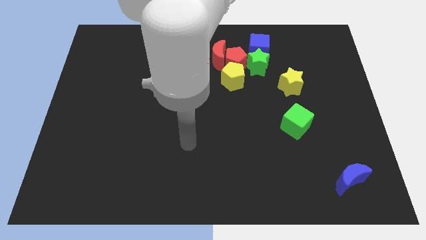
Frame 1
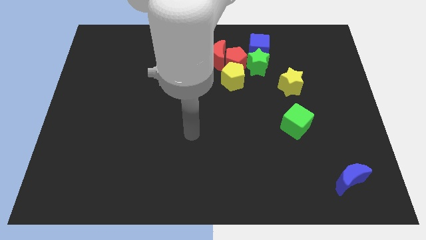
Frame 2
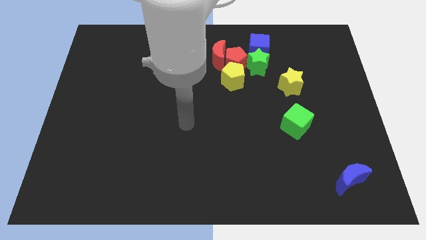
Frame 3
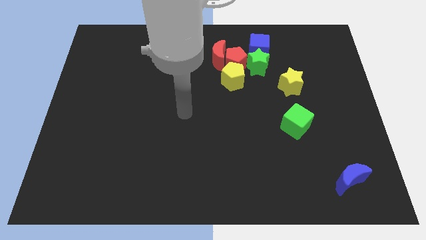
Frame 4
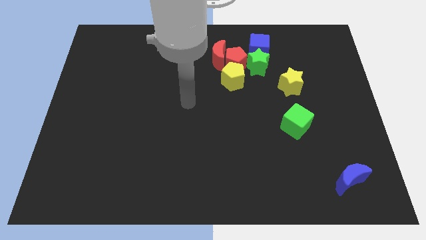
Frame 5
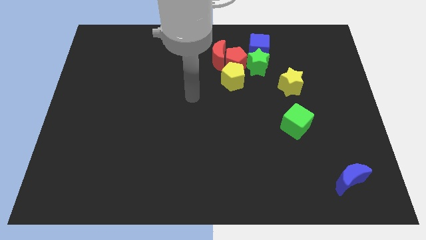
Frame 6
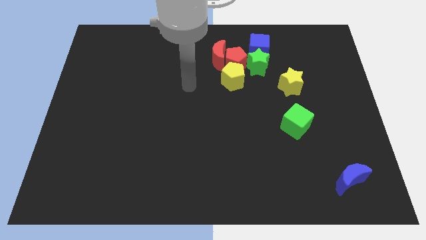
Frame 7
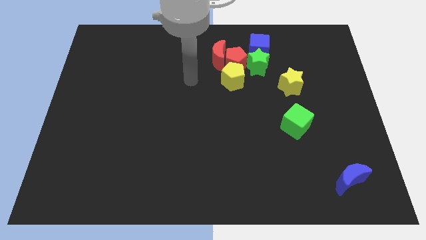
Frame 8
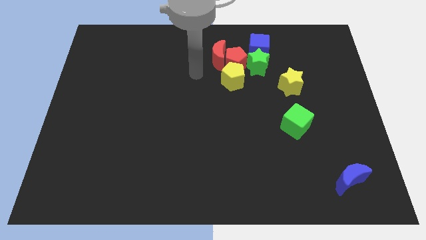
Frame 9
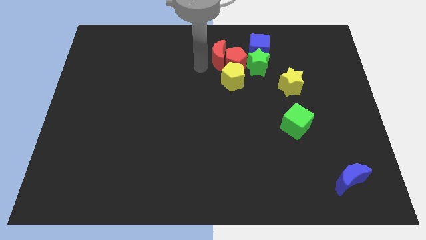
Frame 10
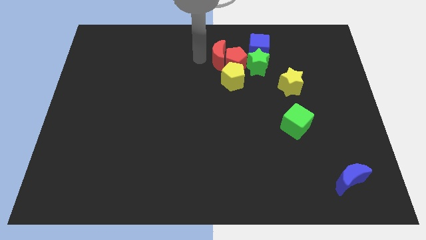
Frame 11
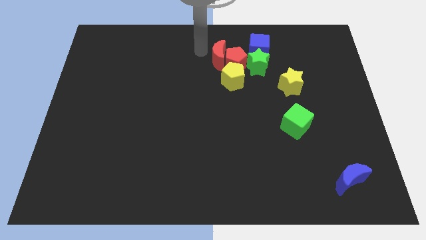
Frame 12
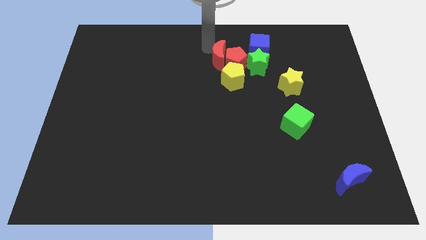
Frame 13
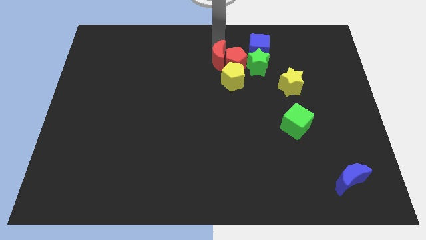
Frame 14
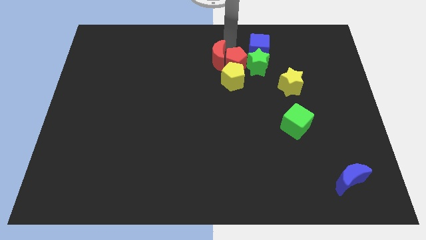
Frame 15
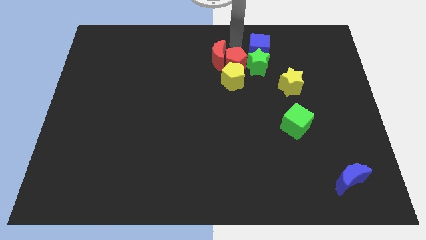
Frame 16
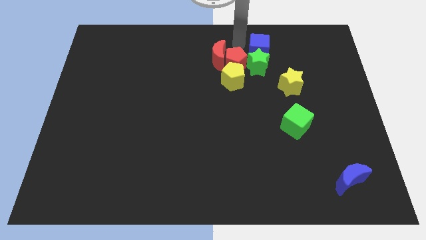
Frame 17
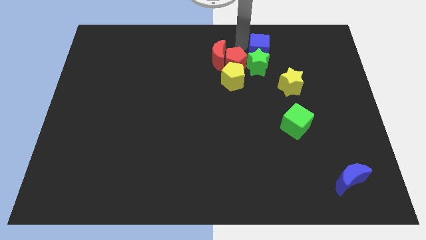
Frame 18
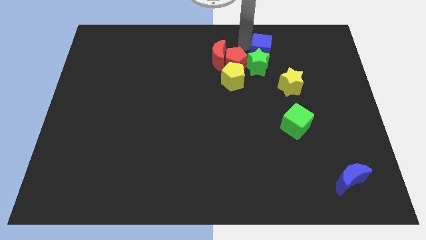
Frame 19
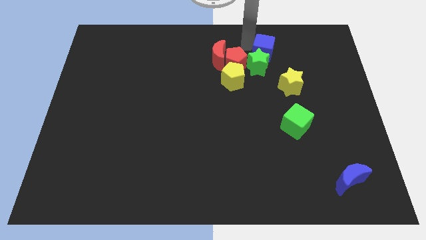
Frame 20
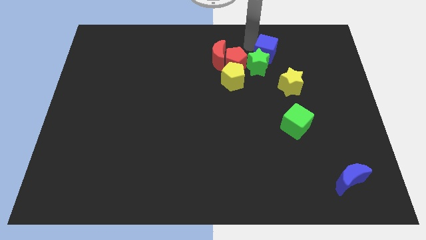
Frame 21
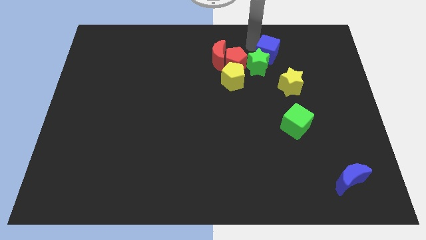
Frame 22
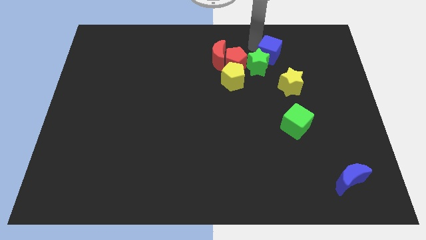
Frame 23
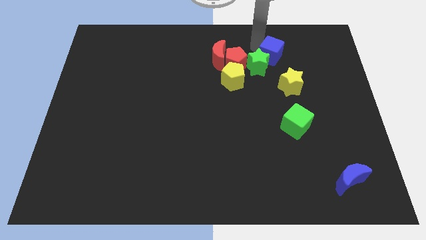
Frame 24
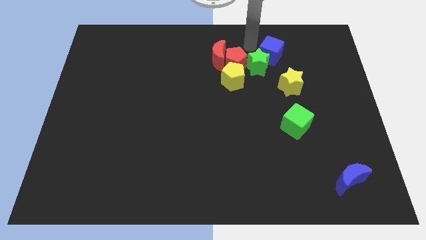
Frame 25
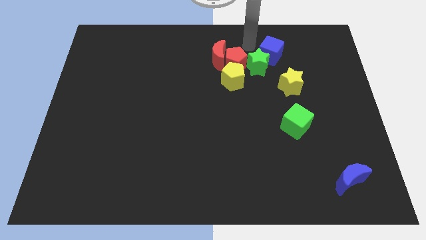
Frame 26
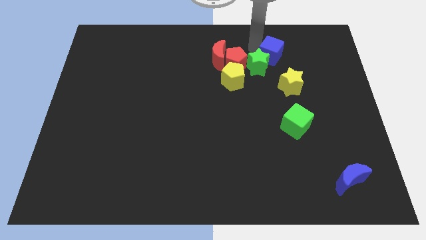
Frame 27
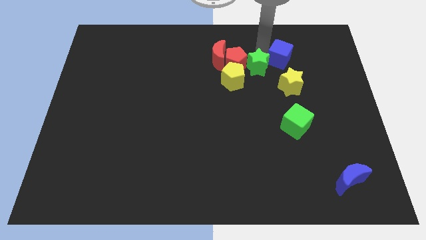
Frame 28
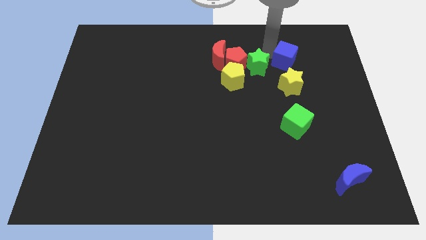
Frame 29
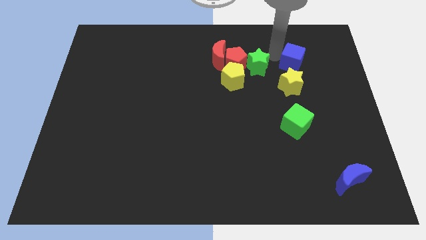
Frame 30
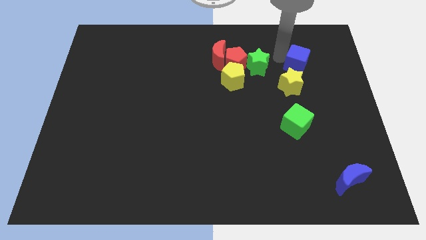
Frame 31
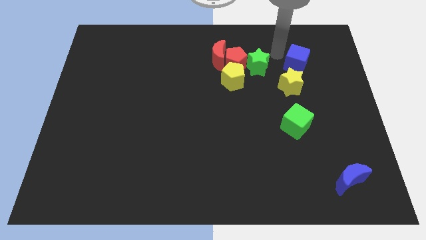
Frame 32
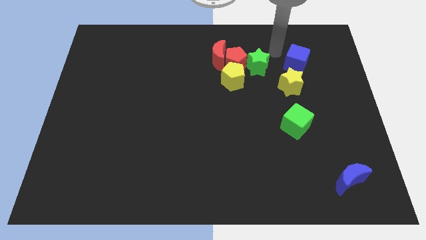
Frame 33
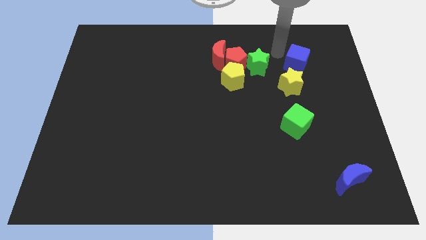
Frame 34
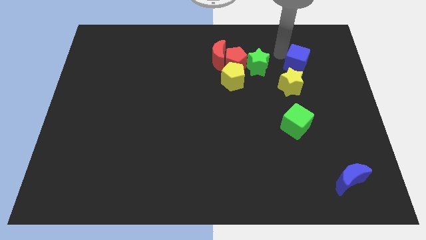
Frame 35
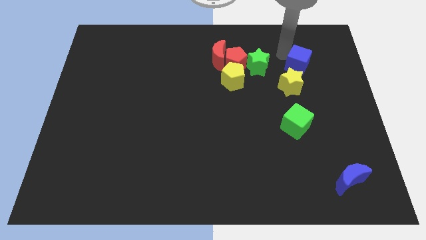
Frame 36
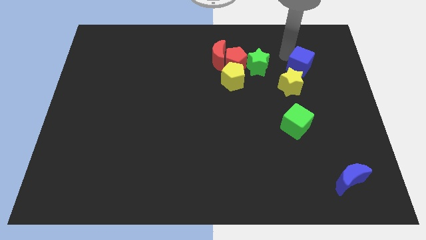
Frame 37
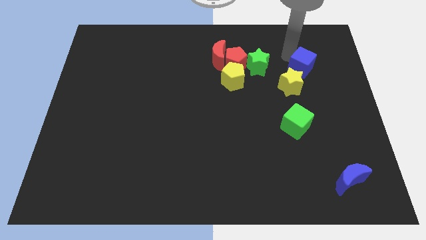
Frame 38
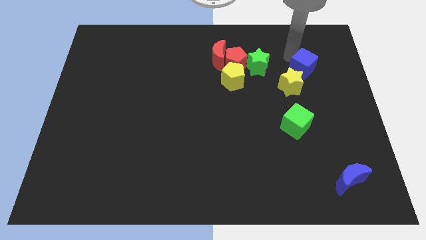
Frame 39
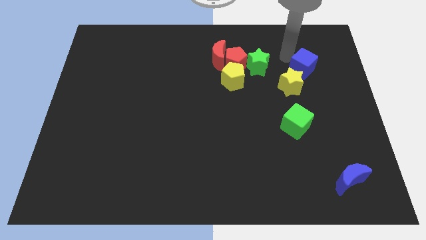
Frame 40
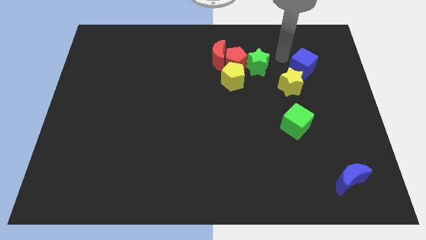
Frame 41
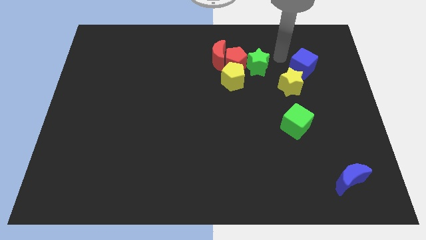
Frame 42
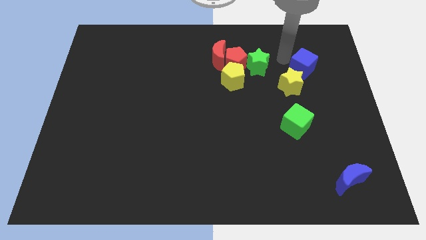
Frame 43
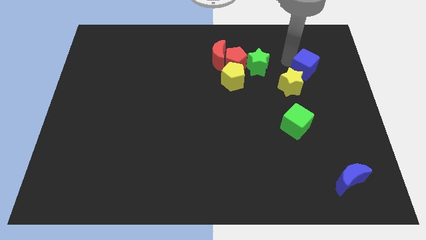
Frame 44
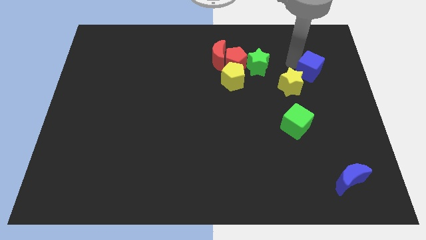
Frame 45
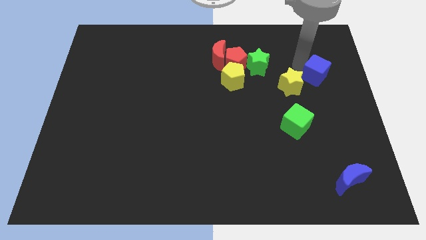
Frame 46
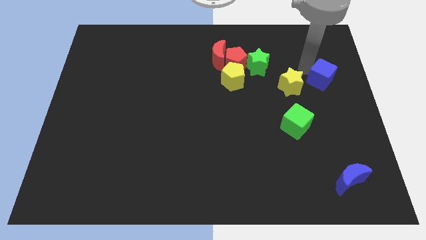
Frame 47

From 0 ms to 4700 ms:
push the blue cube to the right side

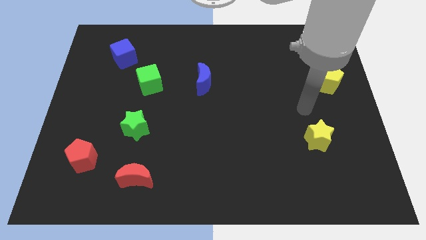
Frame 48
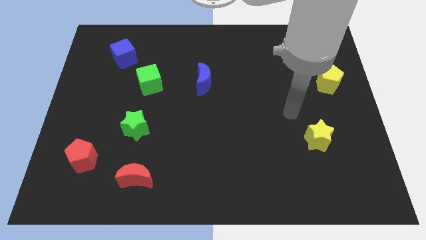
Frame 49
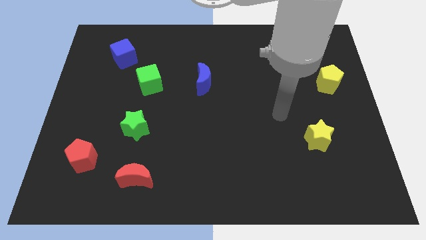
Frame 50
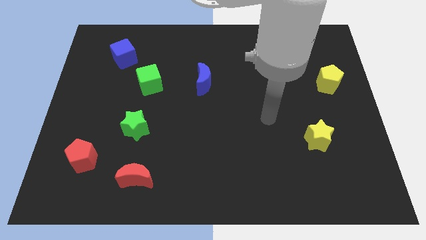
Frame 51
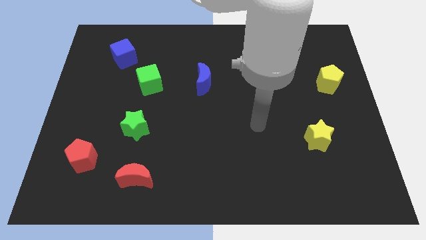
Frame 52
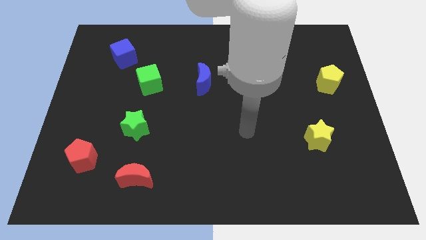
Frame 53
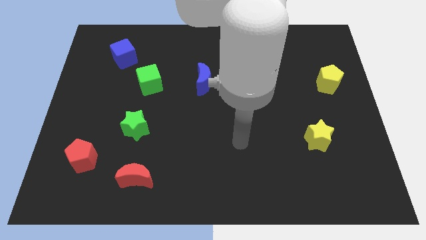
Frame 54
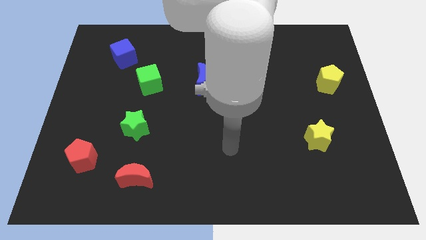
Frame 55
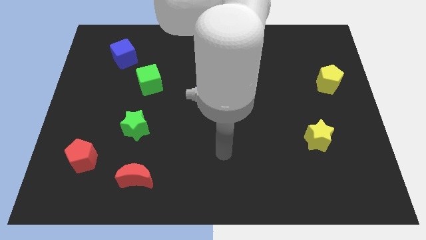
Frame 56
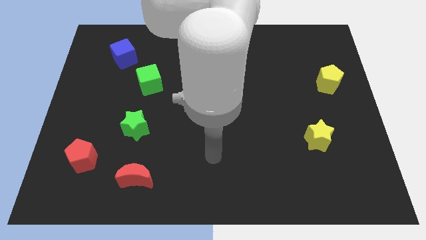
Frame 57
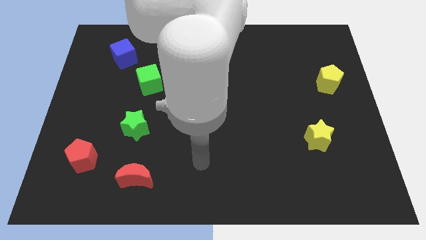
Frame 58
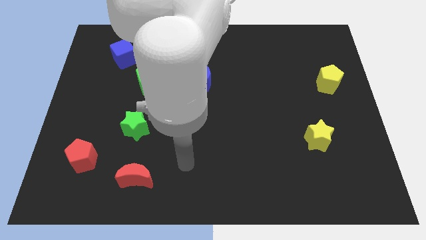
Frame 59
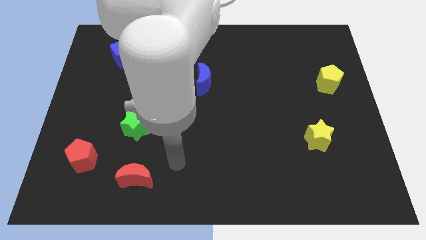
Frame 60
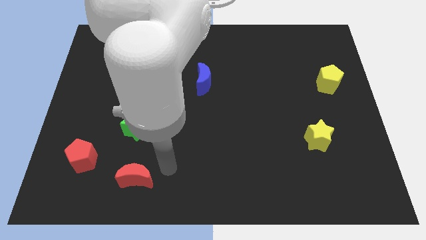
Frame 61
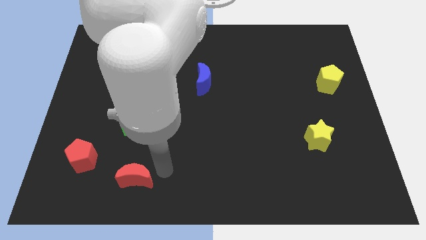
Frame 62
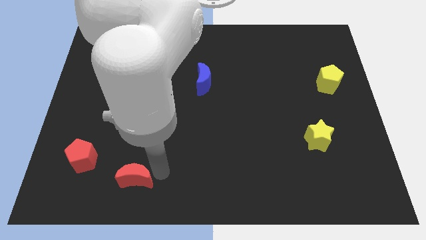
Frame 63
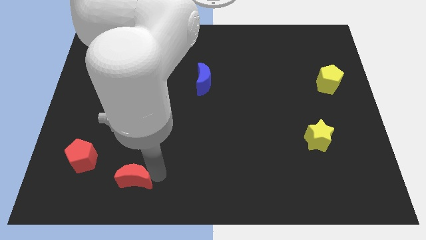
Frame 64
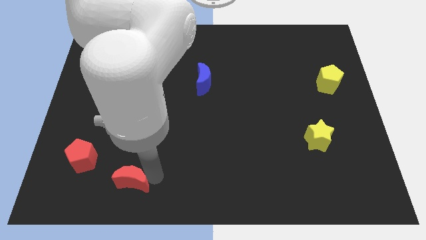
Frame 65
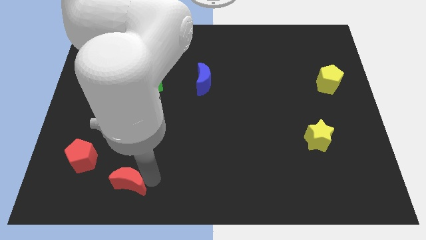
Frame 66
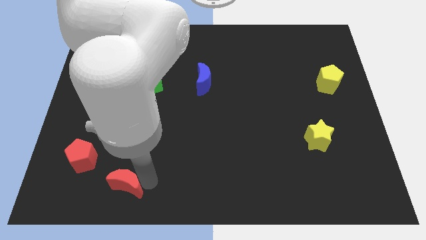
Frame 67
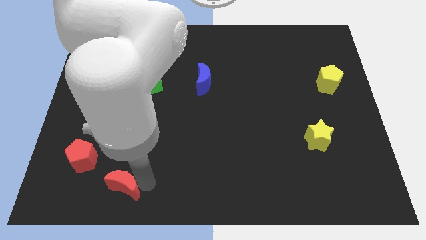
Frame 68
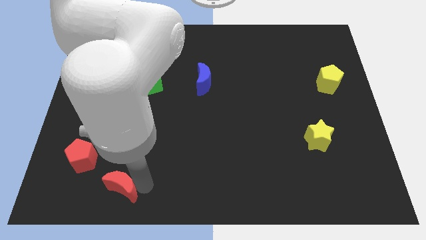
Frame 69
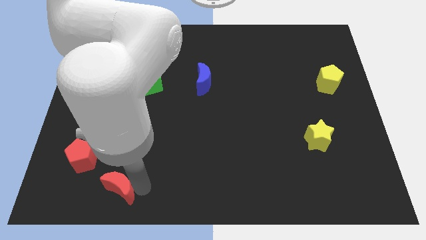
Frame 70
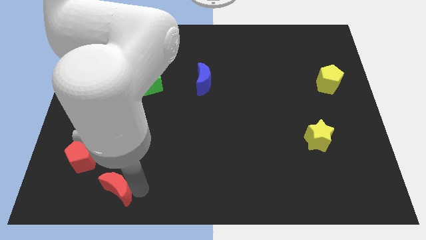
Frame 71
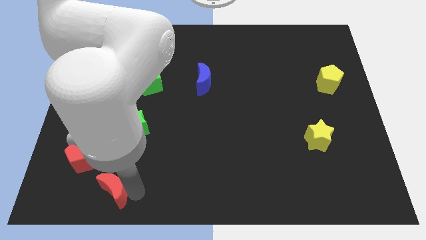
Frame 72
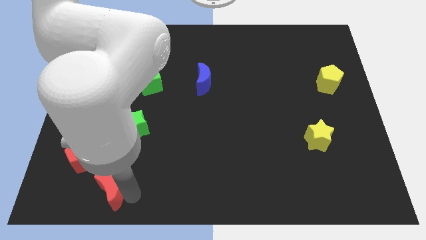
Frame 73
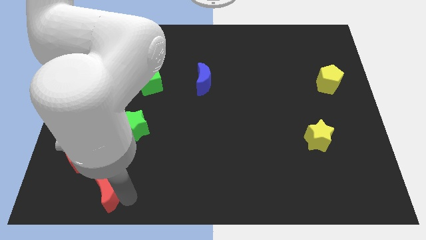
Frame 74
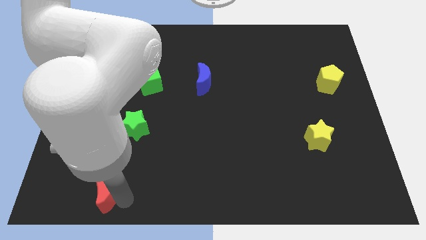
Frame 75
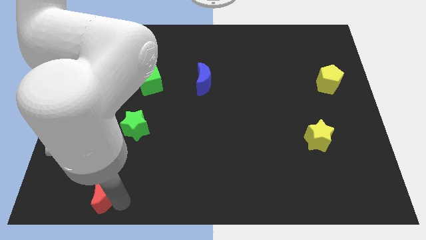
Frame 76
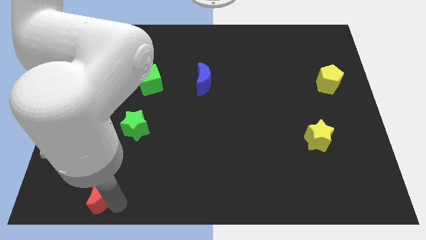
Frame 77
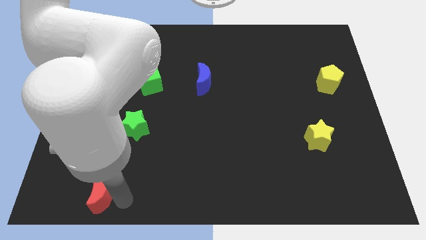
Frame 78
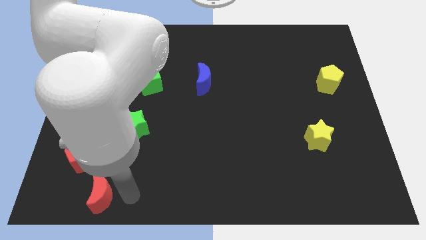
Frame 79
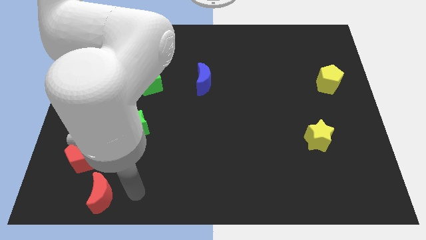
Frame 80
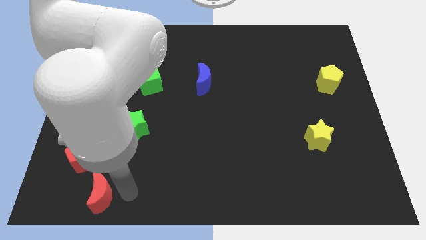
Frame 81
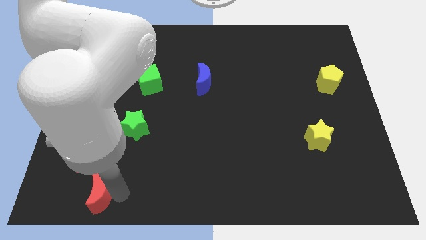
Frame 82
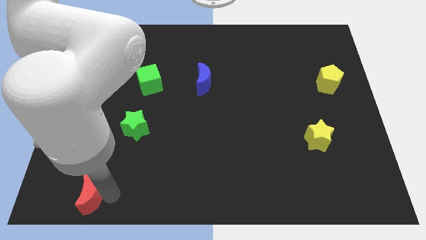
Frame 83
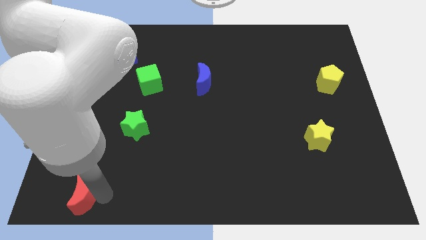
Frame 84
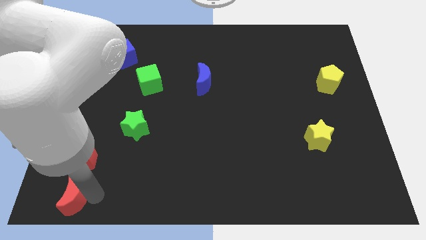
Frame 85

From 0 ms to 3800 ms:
put the red moon to the bottom left of the board
